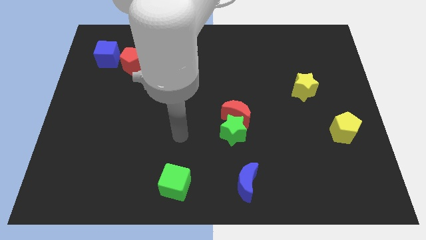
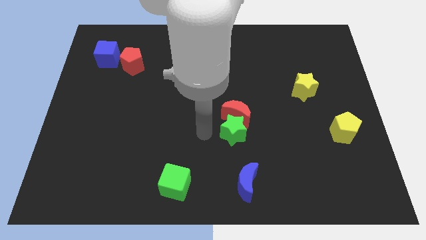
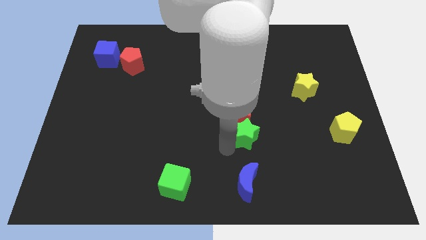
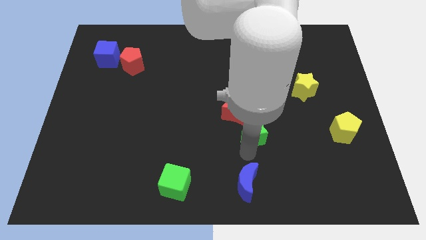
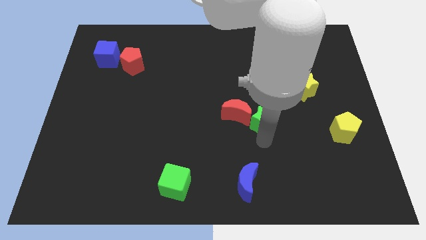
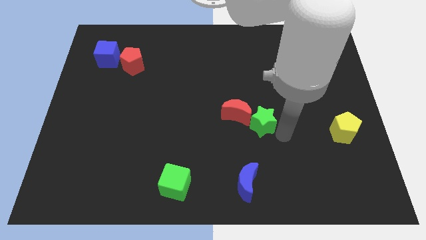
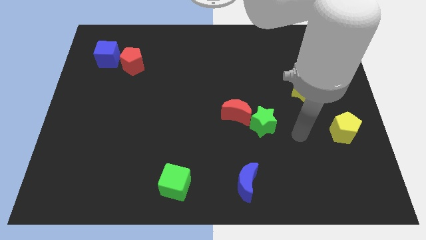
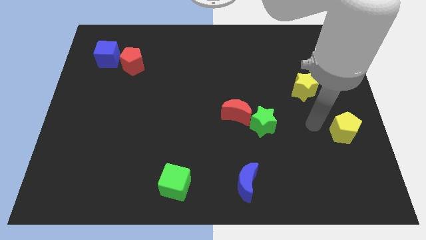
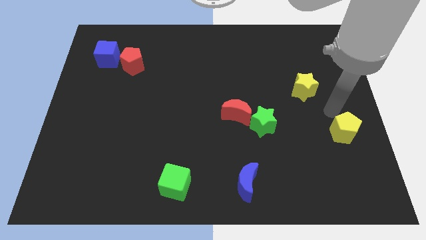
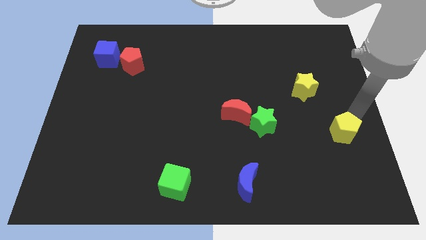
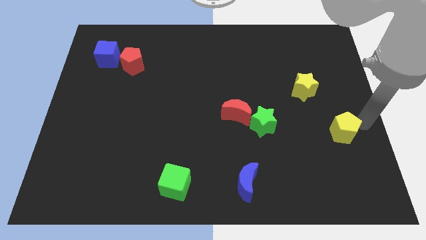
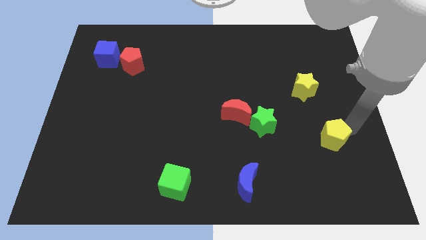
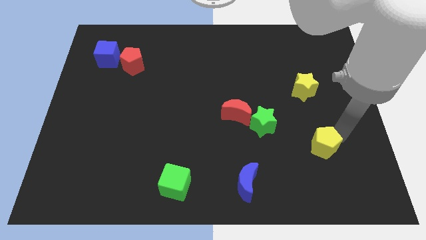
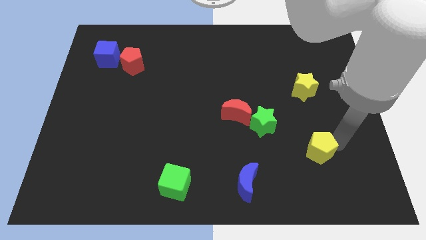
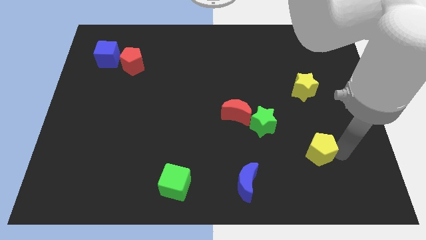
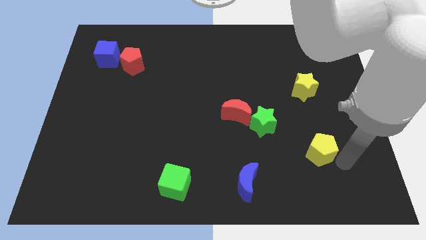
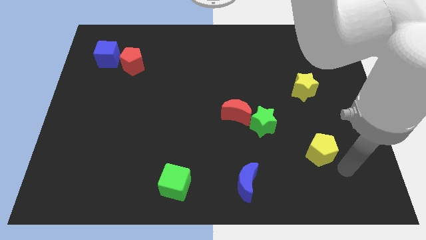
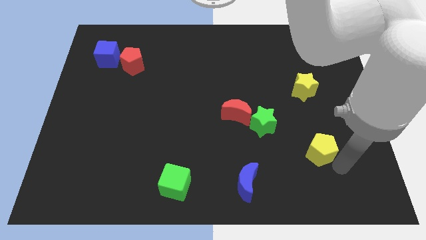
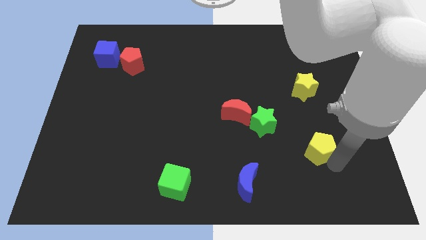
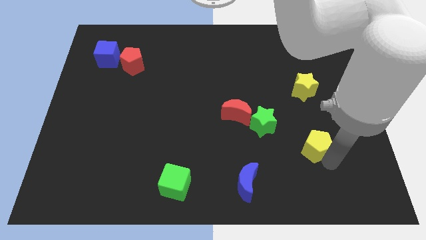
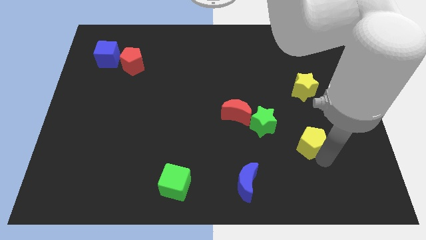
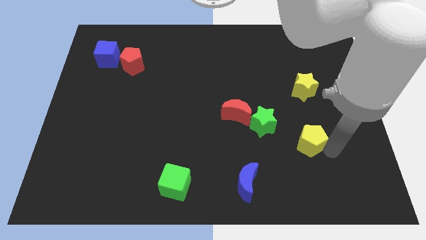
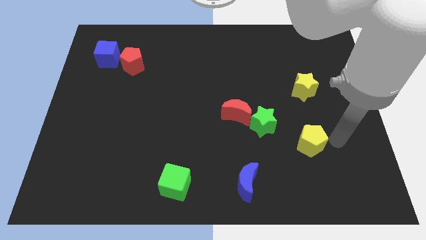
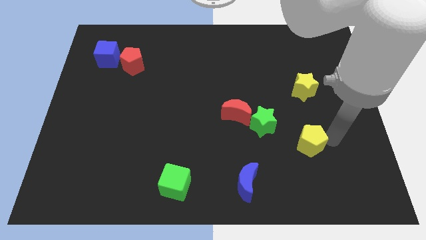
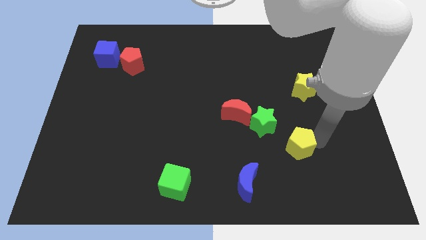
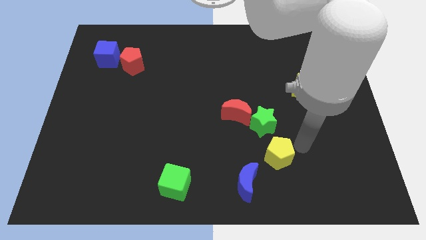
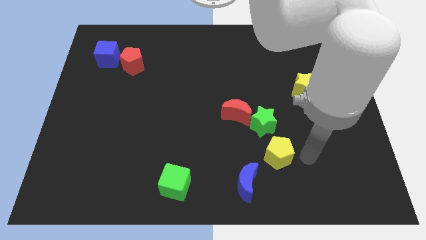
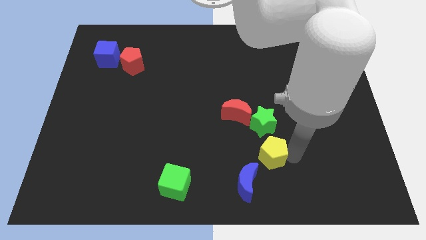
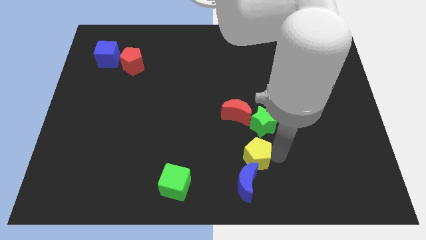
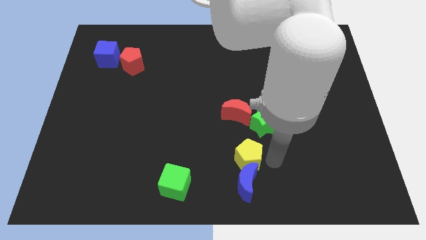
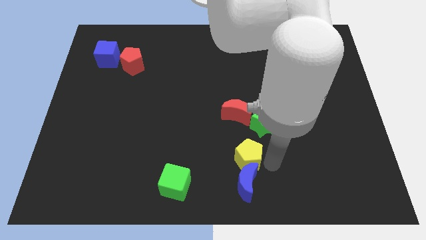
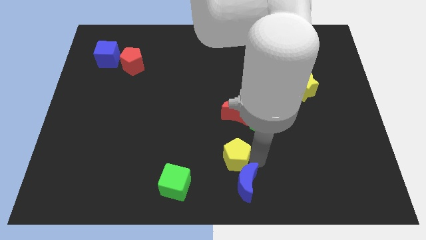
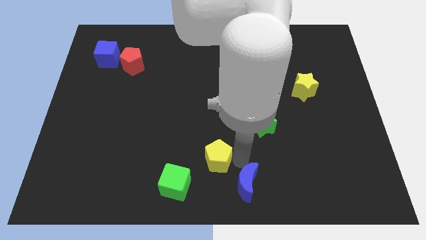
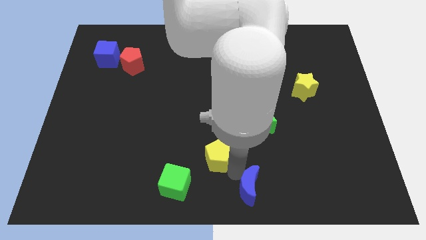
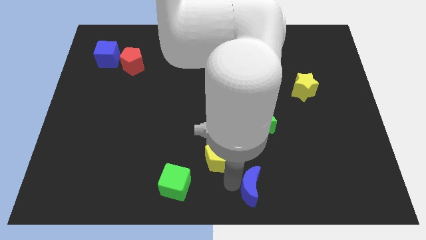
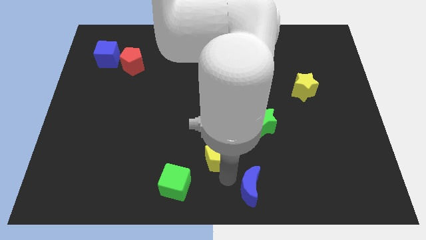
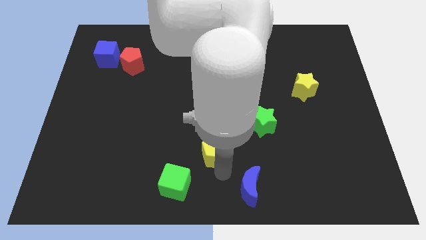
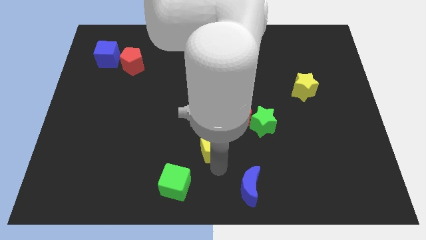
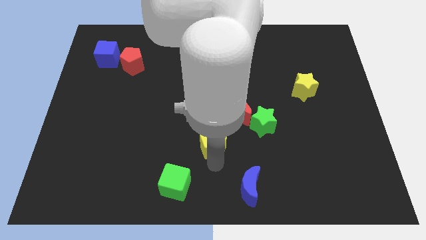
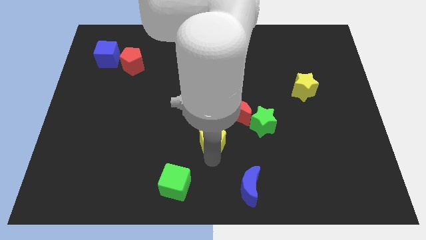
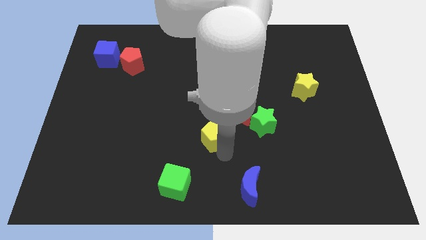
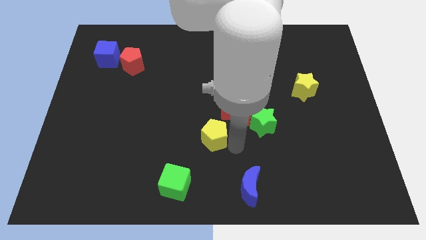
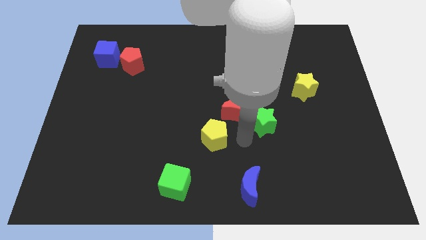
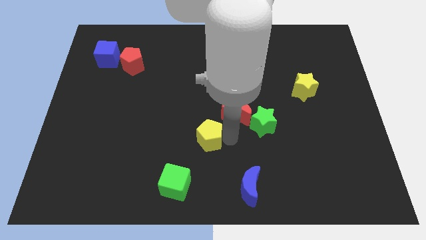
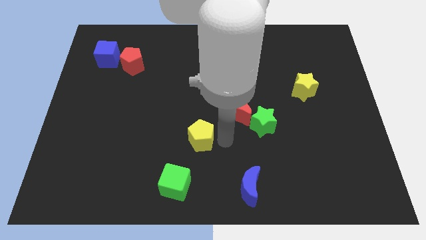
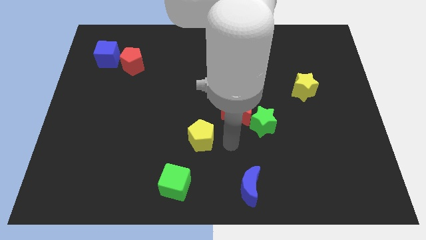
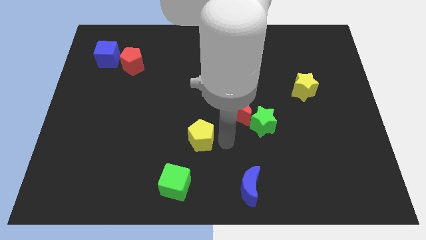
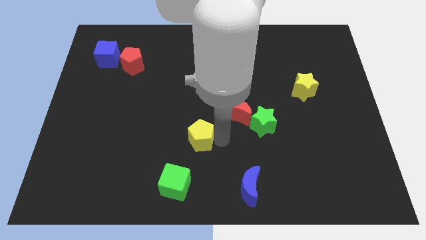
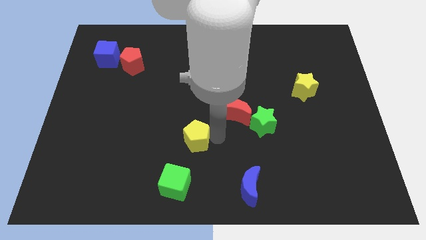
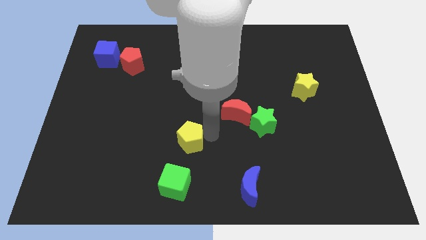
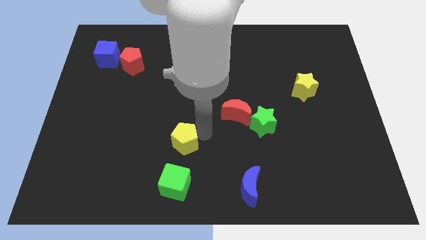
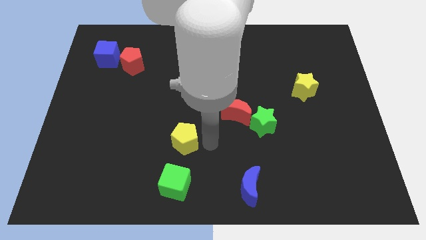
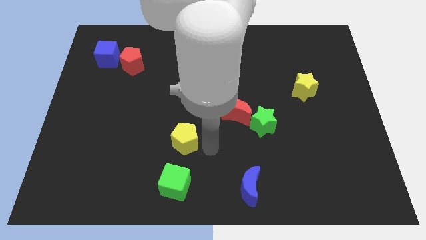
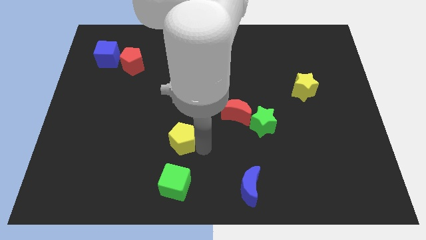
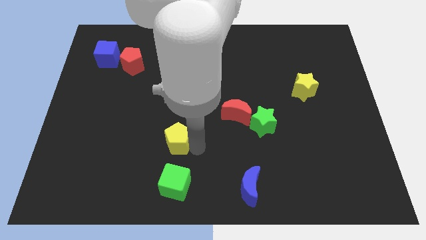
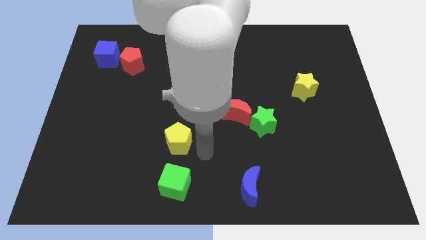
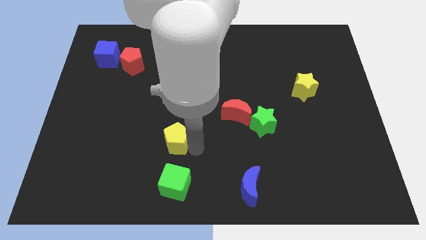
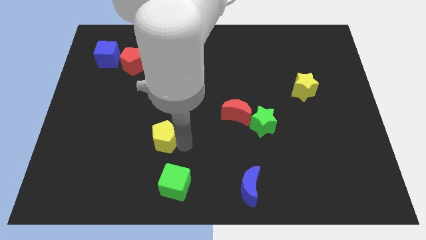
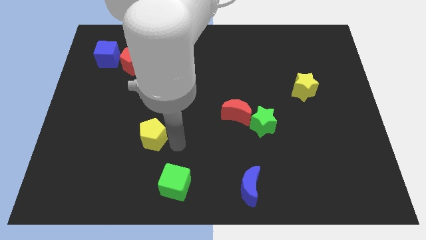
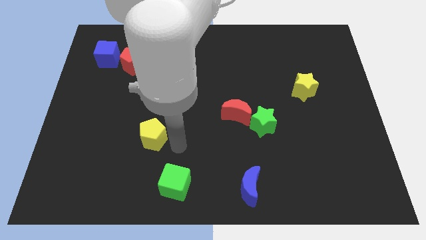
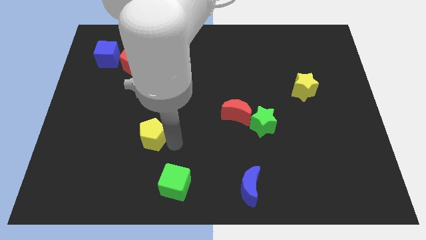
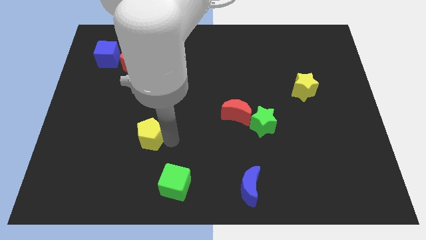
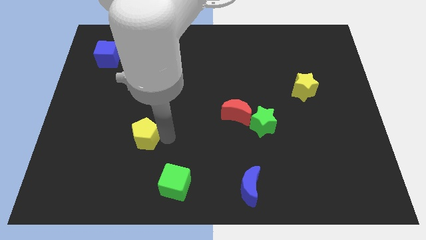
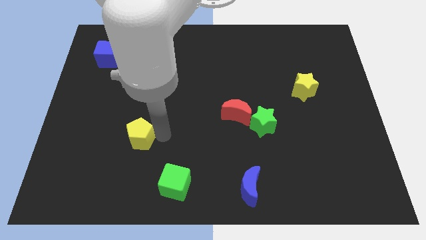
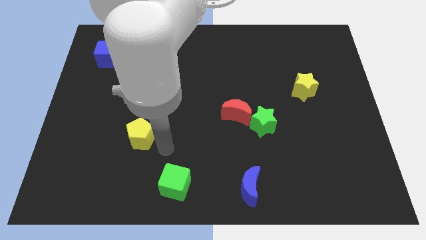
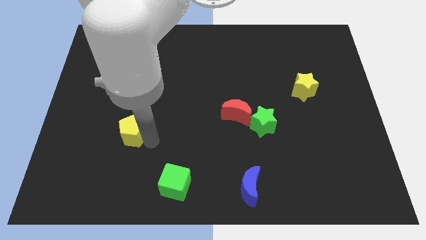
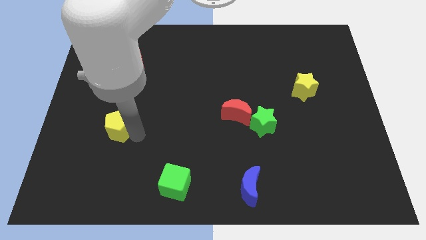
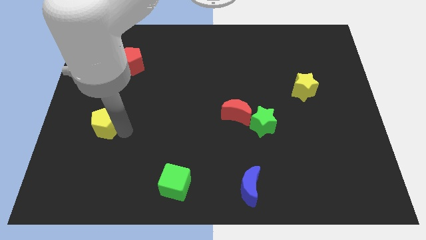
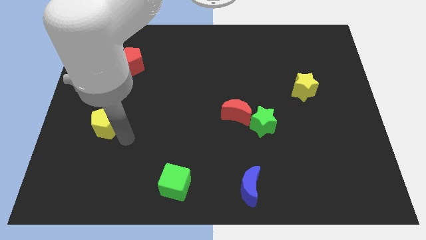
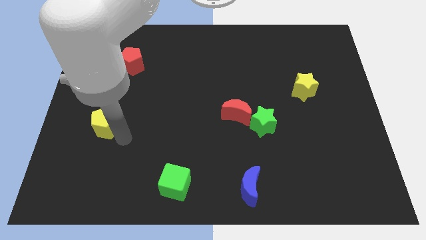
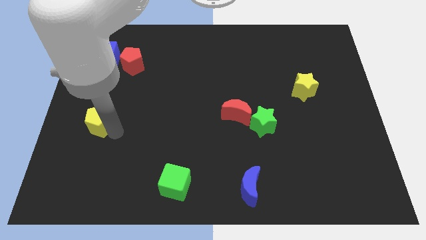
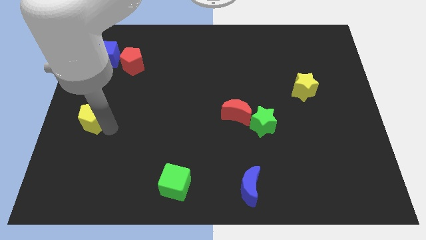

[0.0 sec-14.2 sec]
slide the yellow pentagon to the left side of the board
